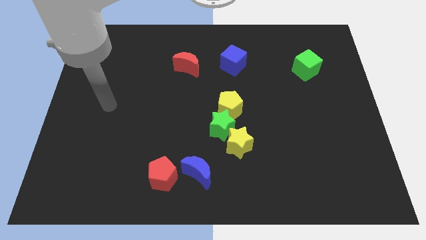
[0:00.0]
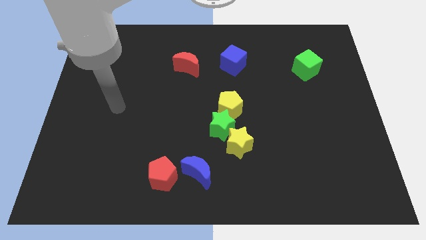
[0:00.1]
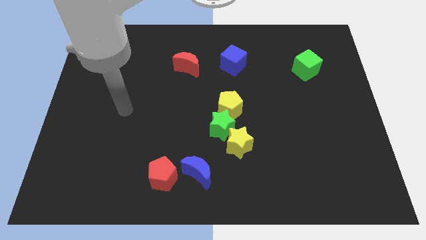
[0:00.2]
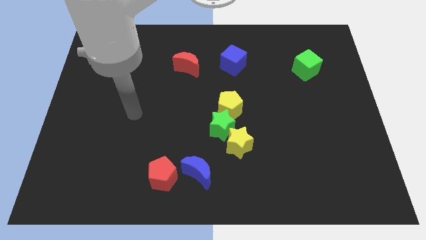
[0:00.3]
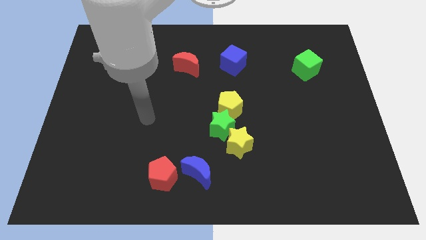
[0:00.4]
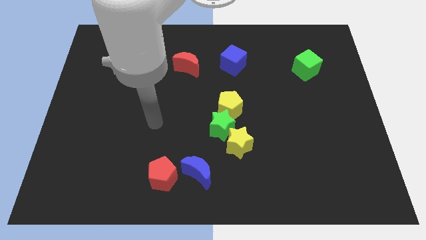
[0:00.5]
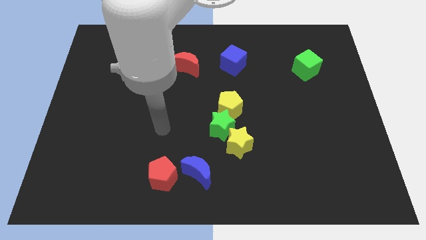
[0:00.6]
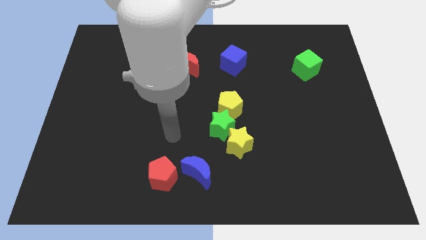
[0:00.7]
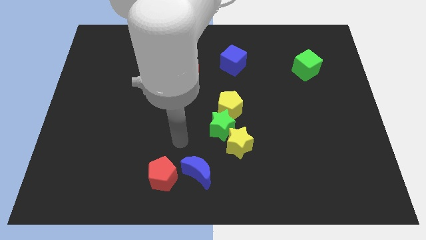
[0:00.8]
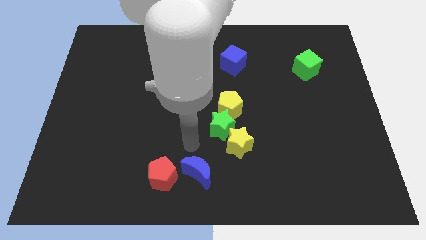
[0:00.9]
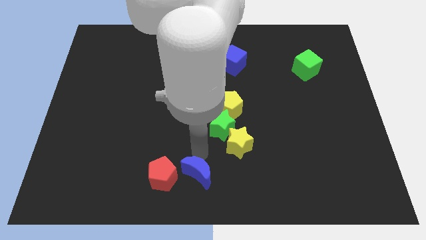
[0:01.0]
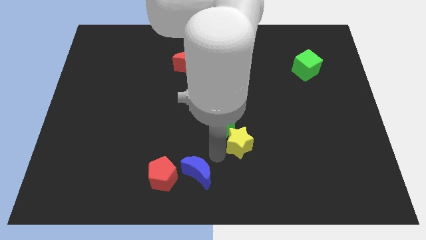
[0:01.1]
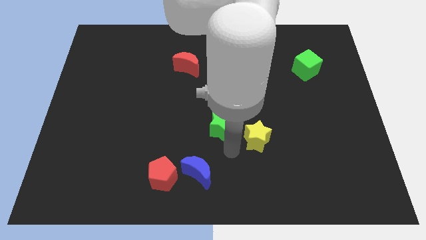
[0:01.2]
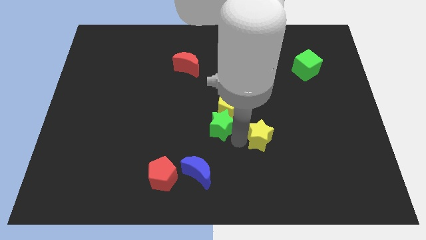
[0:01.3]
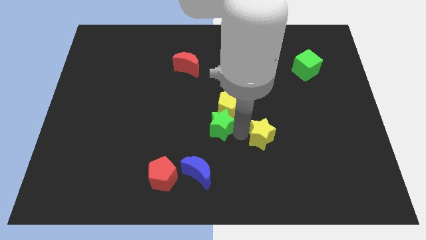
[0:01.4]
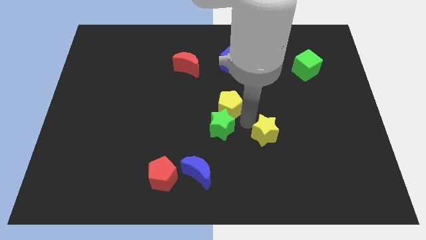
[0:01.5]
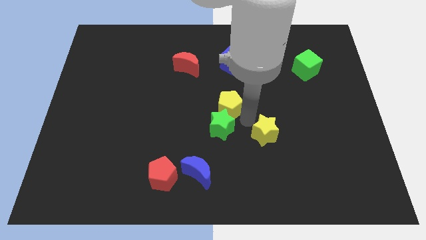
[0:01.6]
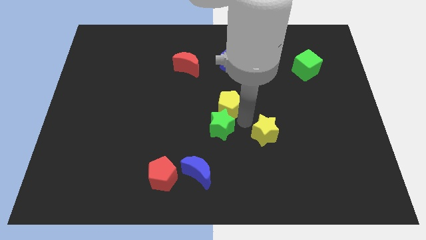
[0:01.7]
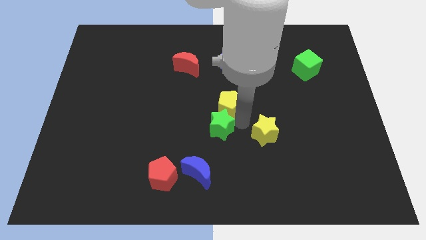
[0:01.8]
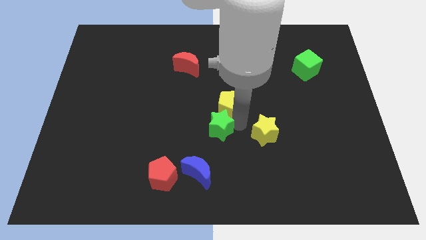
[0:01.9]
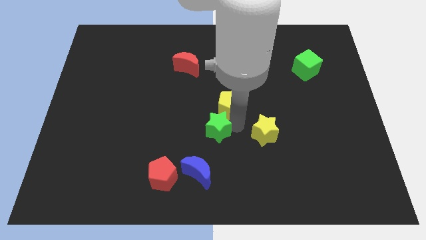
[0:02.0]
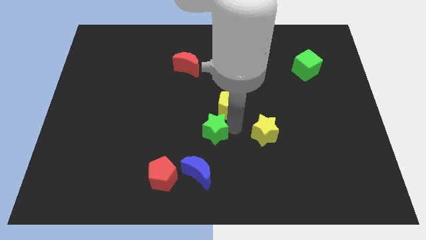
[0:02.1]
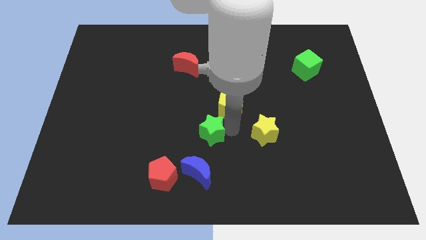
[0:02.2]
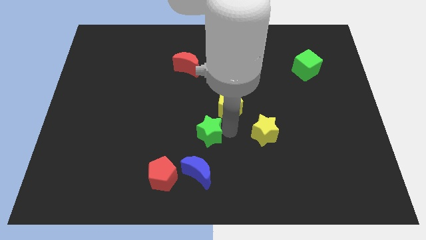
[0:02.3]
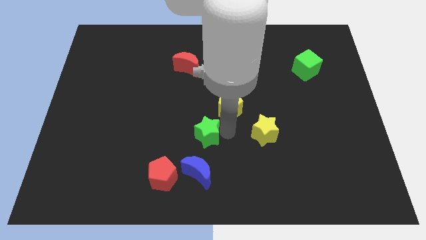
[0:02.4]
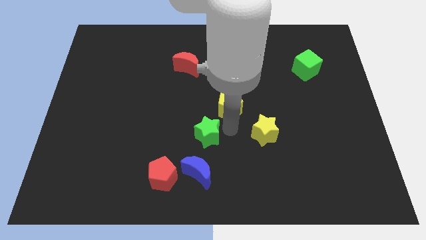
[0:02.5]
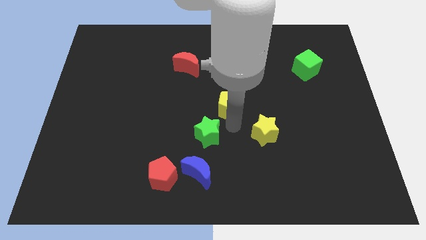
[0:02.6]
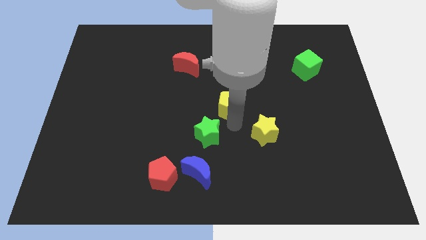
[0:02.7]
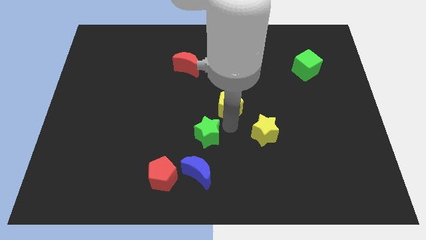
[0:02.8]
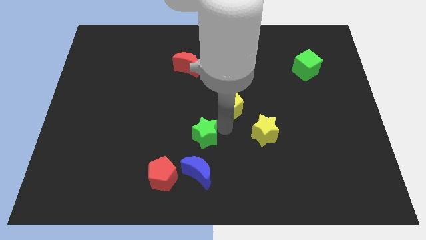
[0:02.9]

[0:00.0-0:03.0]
move the green star away from the yellow pentagon and yellow star

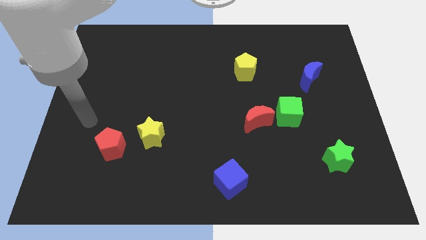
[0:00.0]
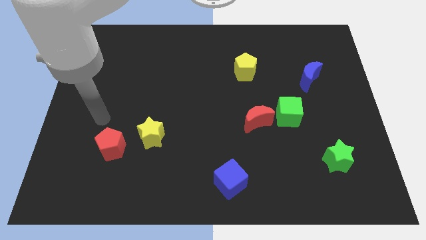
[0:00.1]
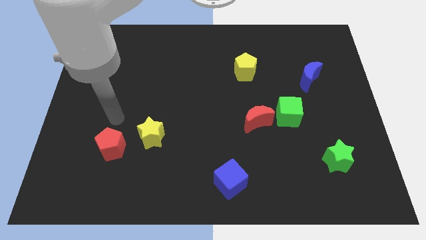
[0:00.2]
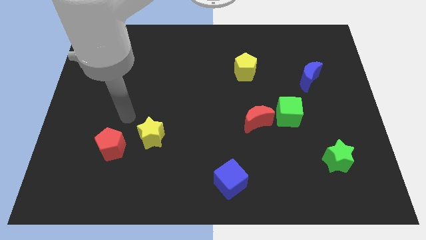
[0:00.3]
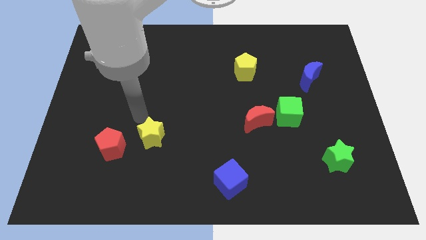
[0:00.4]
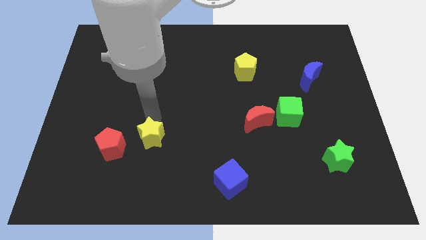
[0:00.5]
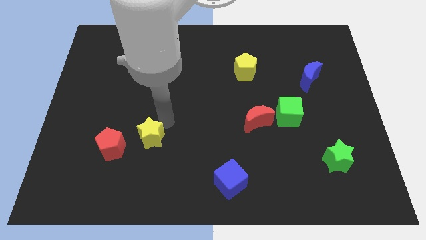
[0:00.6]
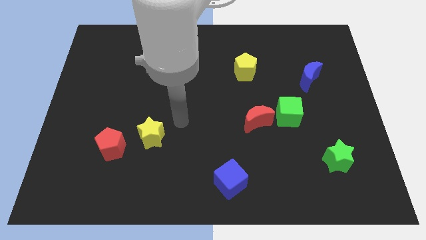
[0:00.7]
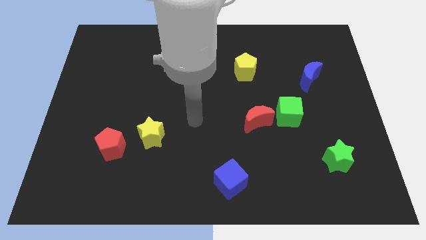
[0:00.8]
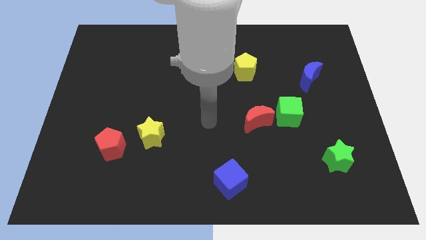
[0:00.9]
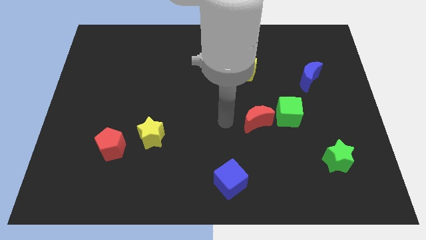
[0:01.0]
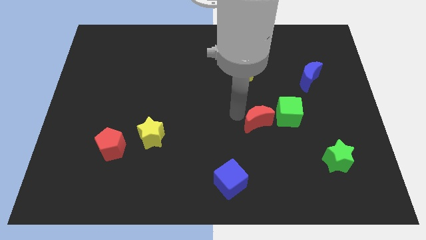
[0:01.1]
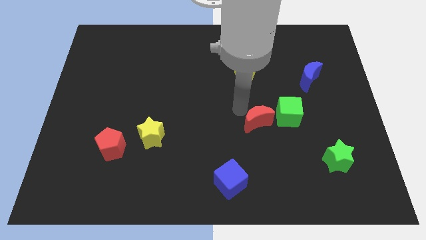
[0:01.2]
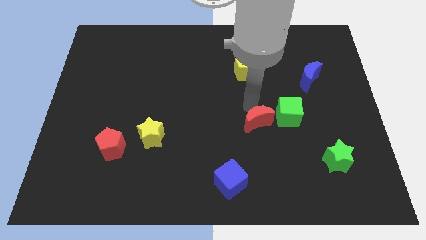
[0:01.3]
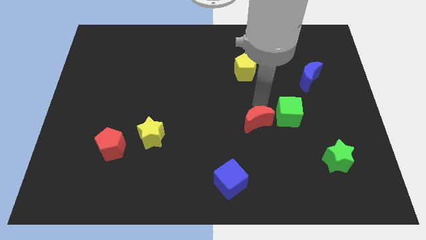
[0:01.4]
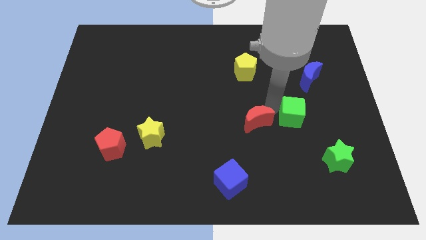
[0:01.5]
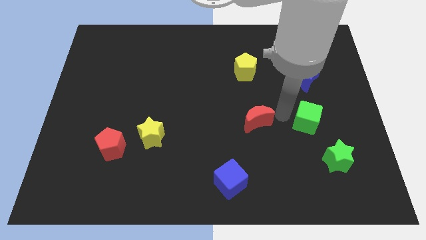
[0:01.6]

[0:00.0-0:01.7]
pull the red moon apart from the green cube

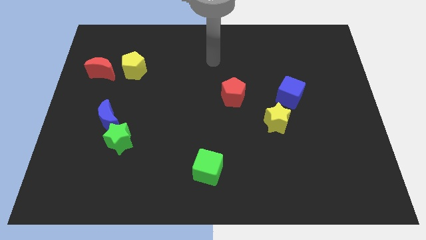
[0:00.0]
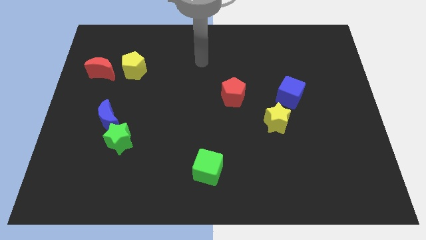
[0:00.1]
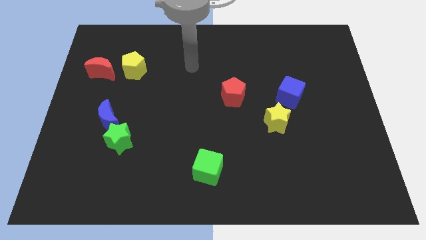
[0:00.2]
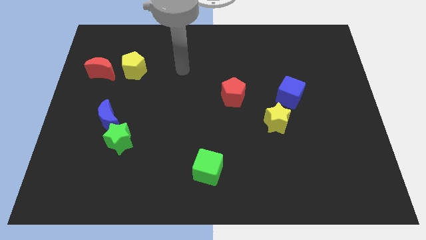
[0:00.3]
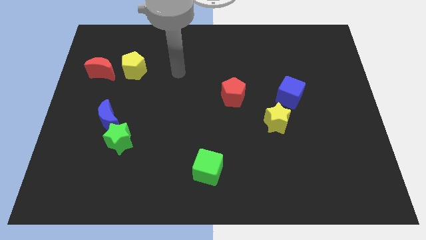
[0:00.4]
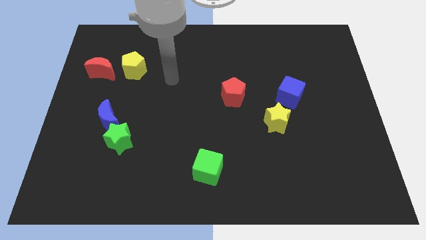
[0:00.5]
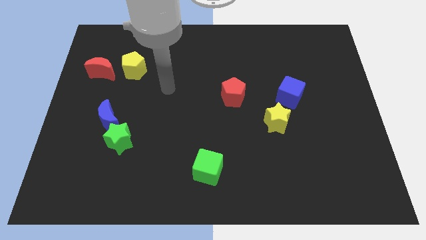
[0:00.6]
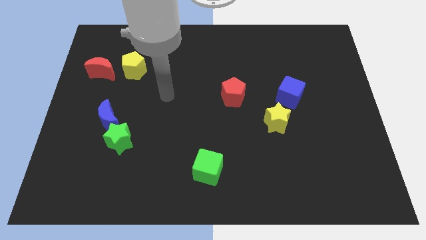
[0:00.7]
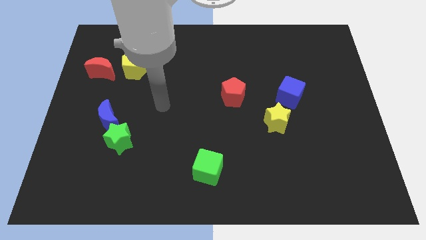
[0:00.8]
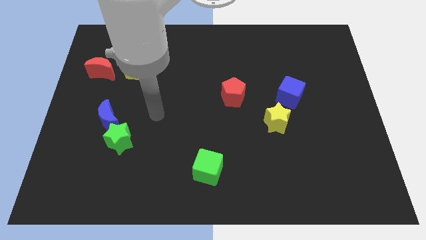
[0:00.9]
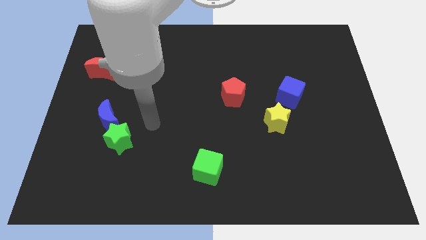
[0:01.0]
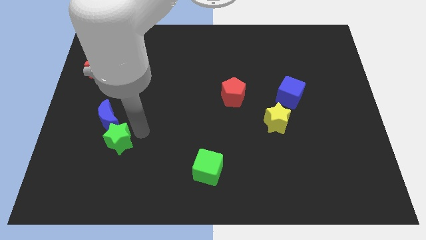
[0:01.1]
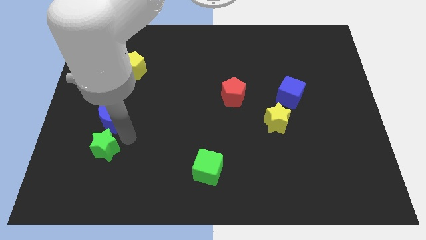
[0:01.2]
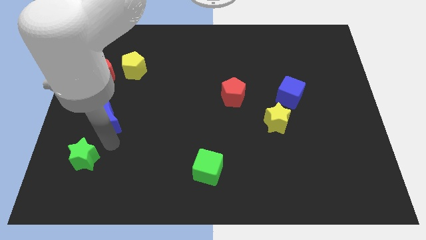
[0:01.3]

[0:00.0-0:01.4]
move the blue moon away from the green star

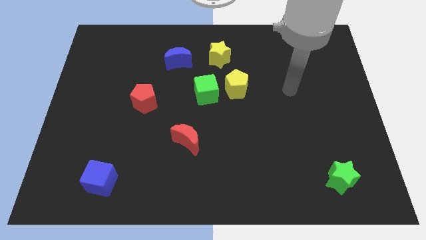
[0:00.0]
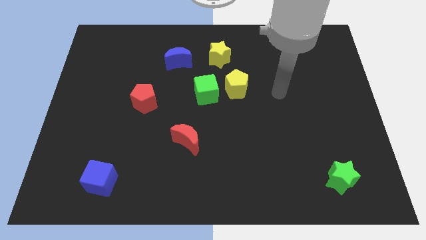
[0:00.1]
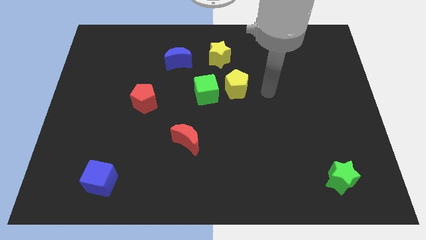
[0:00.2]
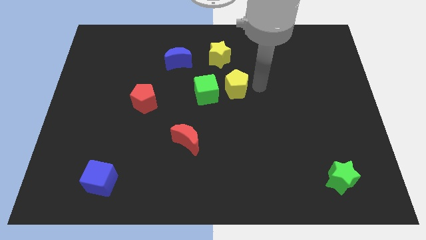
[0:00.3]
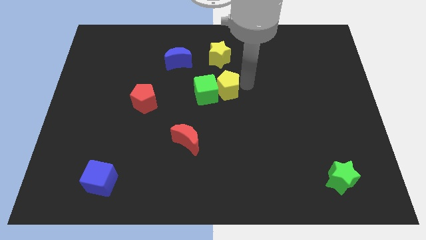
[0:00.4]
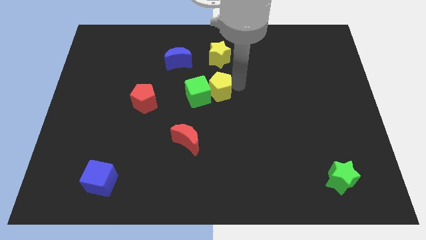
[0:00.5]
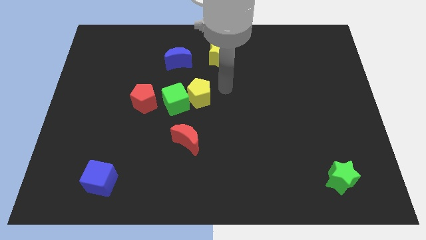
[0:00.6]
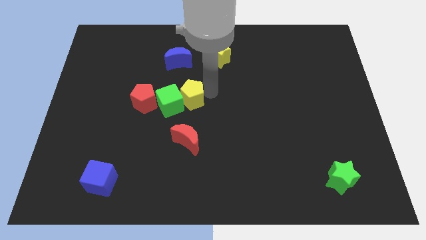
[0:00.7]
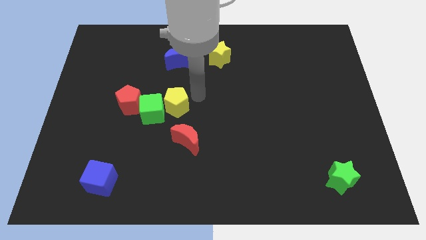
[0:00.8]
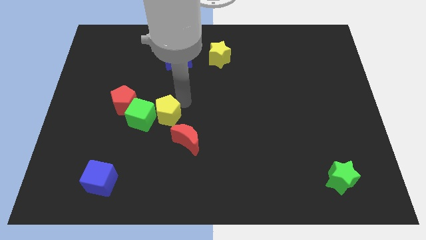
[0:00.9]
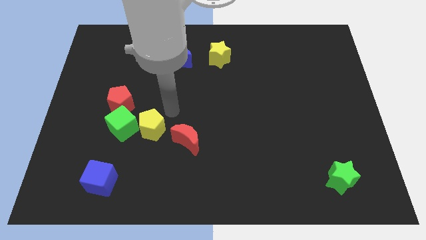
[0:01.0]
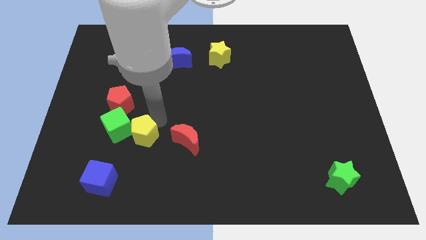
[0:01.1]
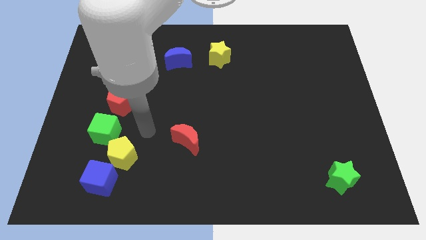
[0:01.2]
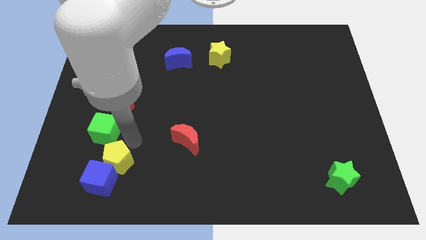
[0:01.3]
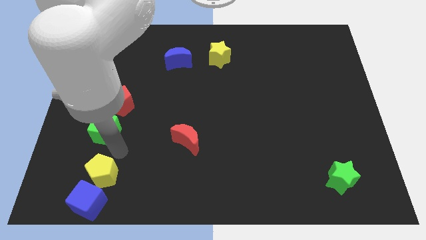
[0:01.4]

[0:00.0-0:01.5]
move the green cube away from the yellow pentagon

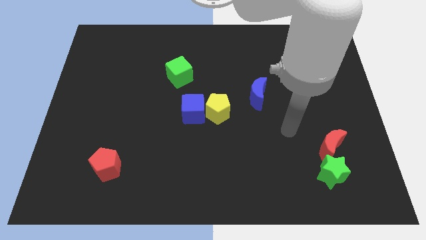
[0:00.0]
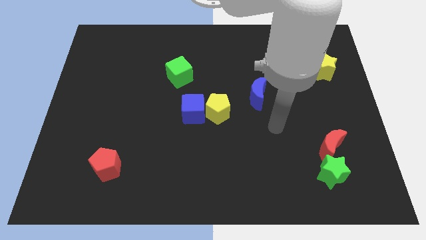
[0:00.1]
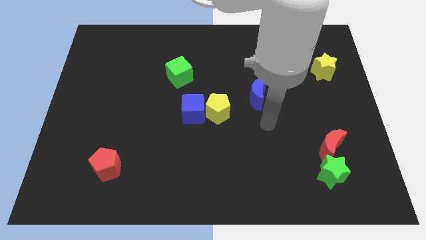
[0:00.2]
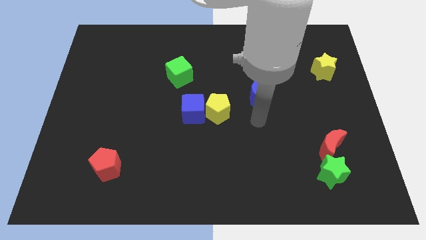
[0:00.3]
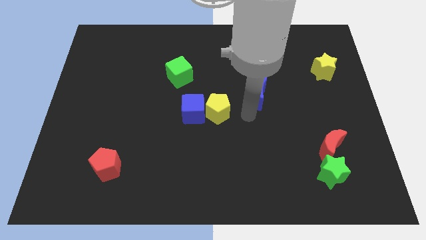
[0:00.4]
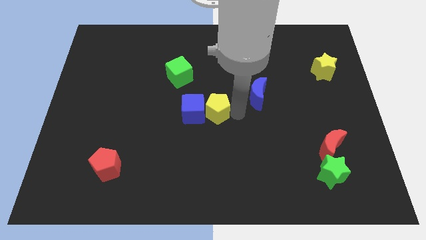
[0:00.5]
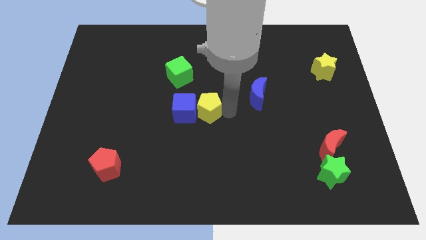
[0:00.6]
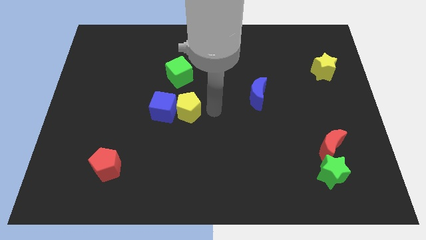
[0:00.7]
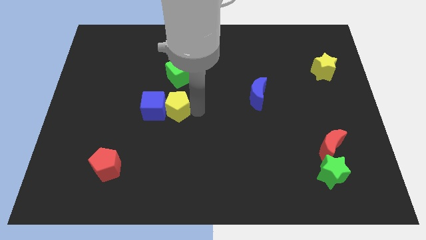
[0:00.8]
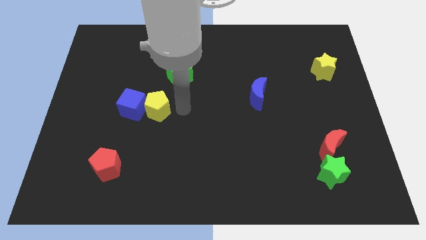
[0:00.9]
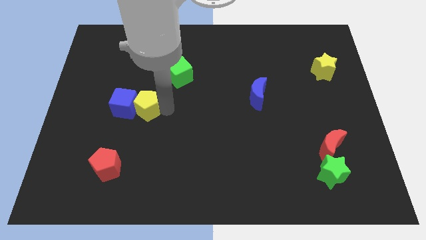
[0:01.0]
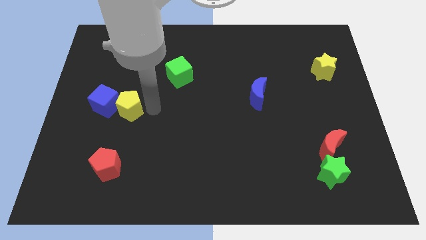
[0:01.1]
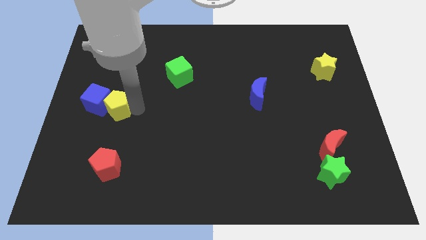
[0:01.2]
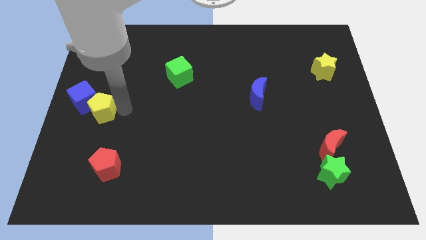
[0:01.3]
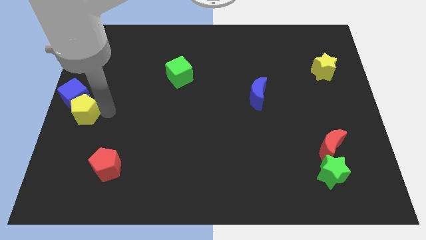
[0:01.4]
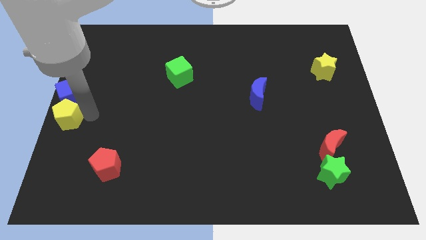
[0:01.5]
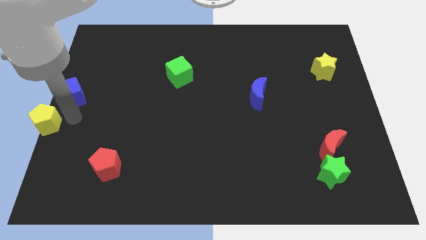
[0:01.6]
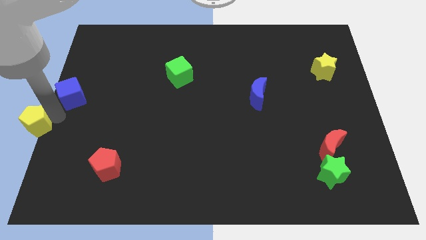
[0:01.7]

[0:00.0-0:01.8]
move the blue cube away from the yellow pentagon
